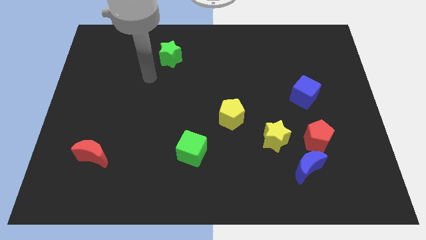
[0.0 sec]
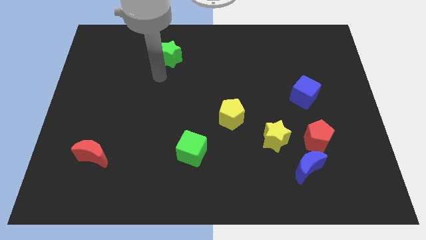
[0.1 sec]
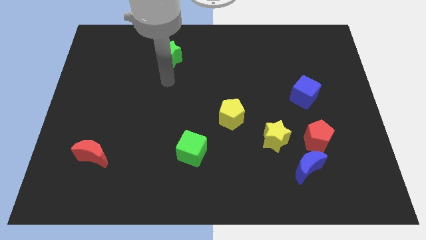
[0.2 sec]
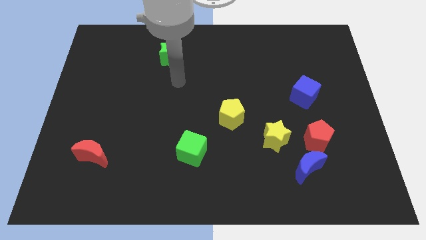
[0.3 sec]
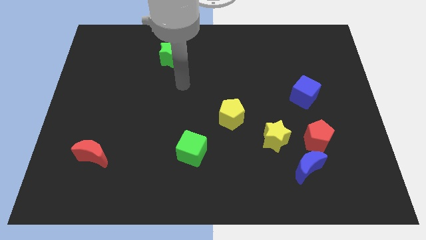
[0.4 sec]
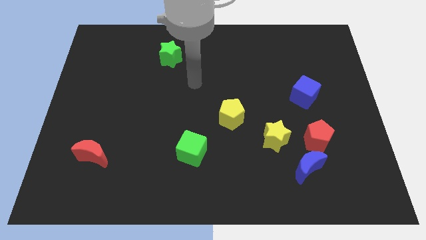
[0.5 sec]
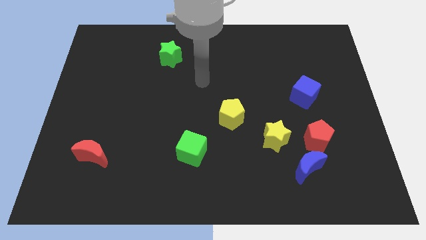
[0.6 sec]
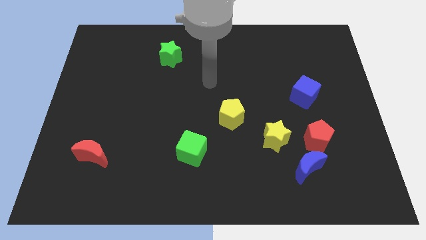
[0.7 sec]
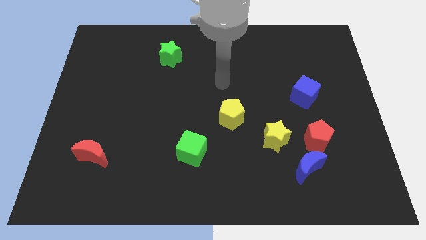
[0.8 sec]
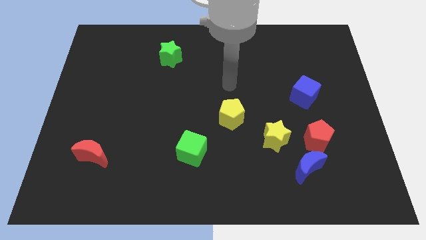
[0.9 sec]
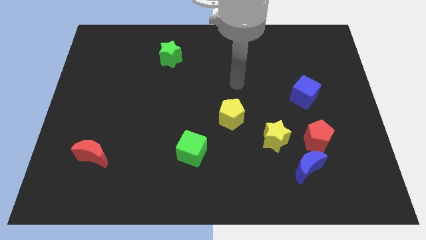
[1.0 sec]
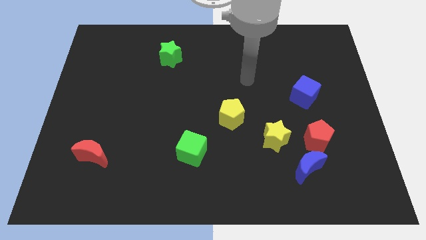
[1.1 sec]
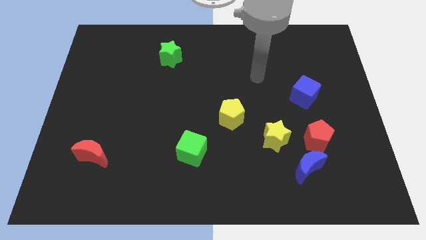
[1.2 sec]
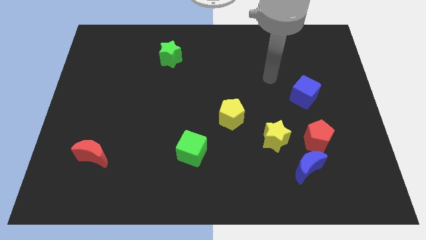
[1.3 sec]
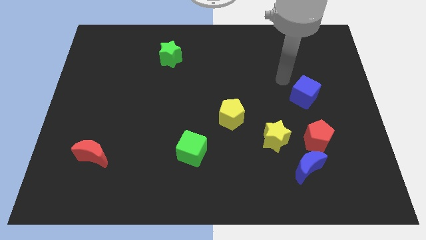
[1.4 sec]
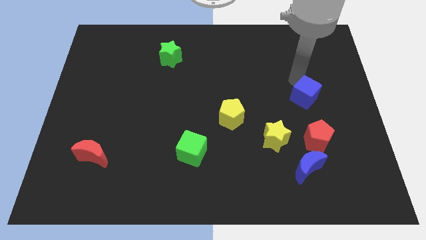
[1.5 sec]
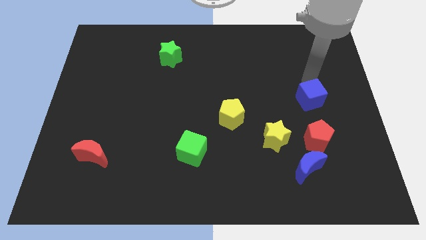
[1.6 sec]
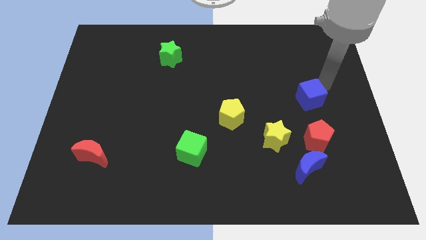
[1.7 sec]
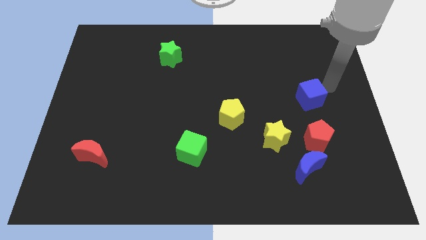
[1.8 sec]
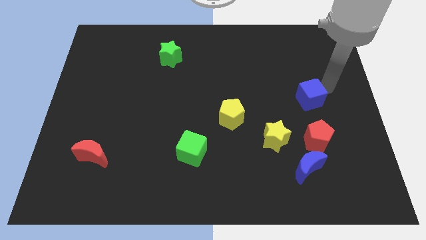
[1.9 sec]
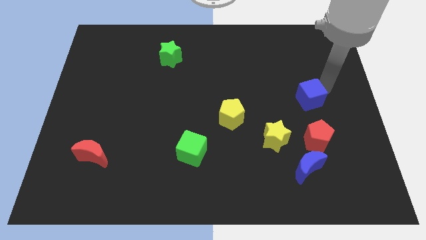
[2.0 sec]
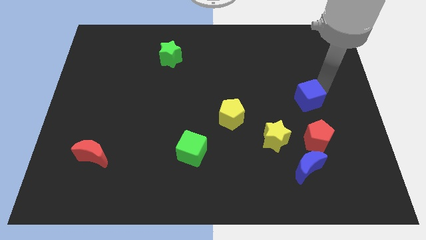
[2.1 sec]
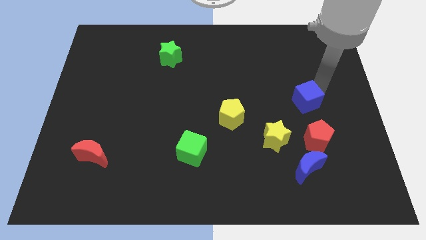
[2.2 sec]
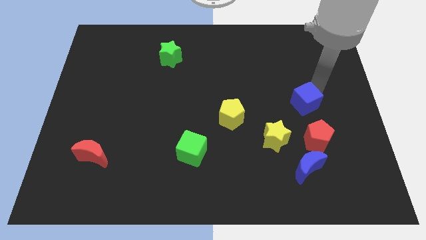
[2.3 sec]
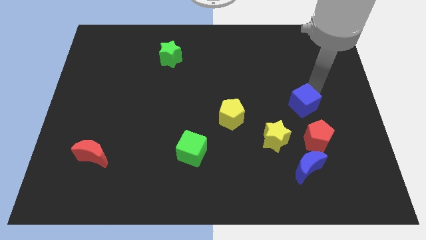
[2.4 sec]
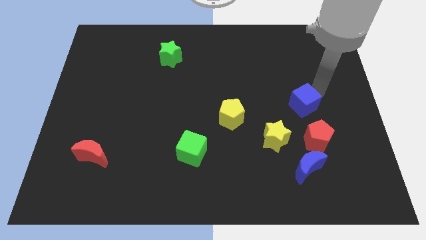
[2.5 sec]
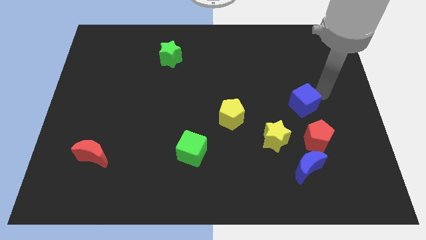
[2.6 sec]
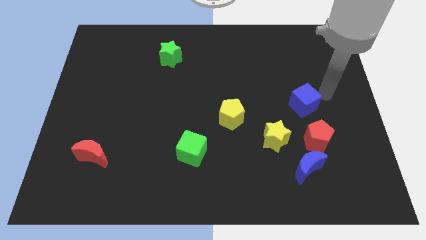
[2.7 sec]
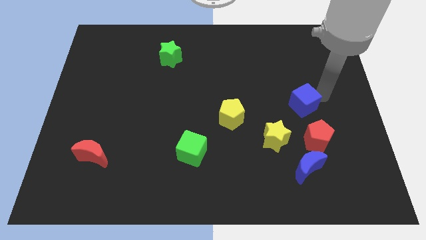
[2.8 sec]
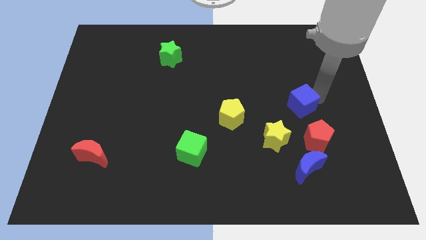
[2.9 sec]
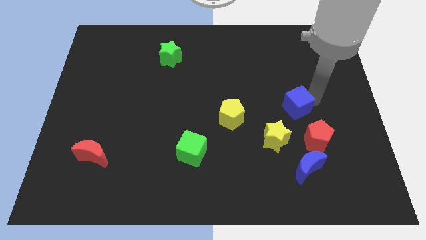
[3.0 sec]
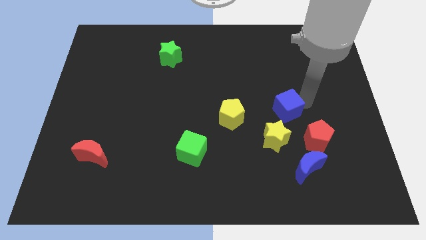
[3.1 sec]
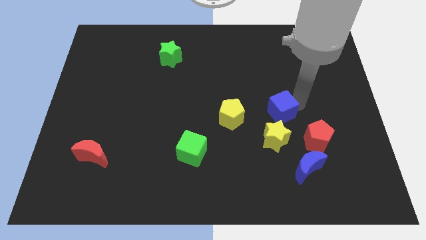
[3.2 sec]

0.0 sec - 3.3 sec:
move the blue cube a little downwards and to the left

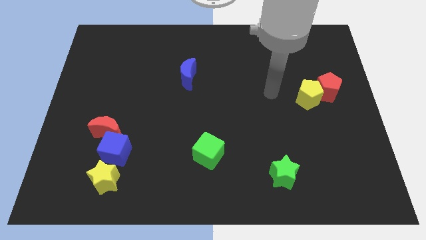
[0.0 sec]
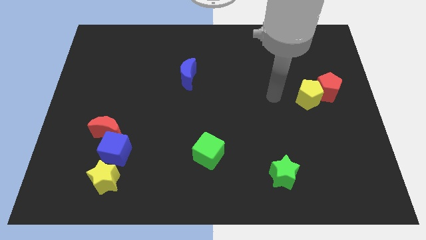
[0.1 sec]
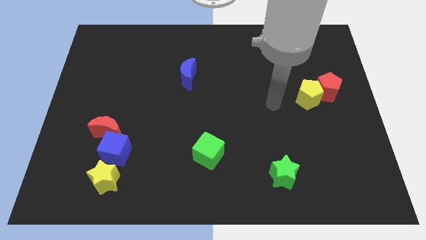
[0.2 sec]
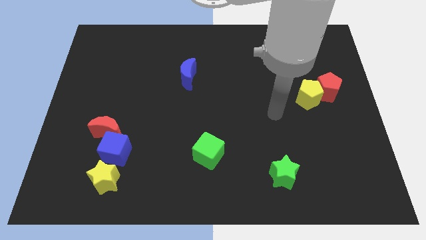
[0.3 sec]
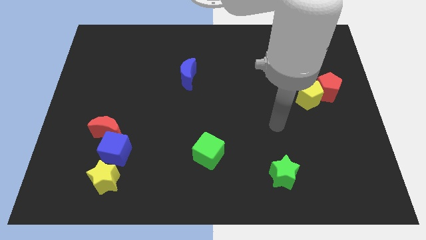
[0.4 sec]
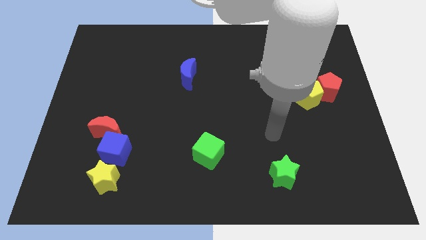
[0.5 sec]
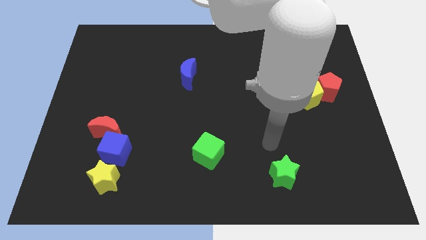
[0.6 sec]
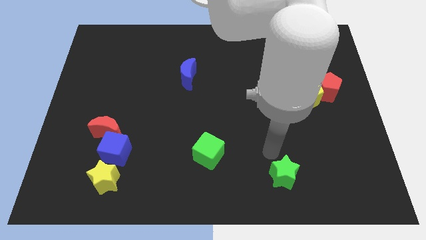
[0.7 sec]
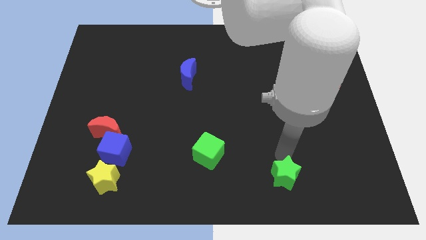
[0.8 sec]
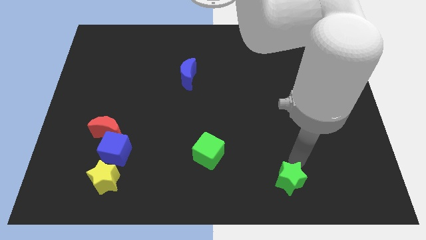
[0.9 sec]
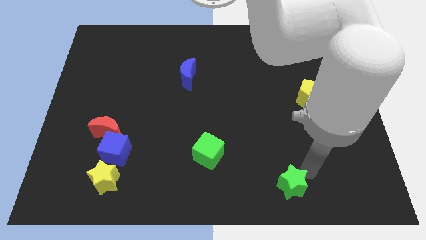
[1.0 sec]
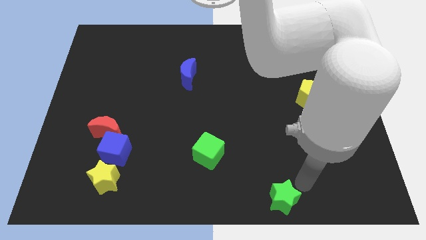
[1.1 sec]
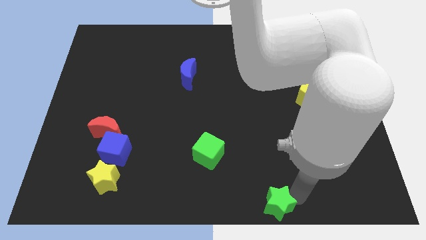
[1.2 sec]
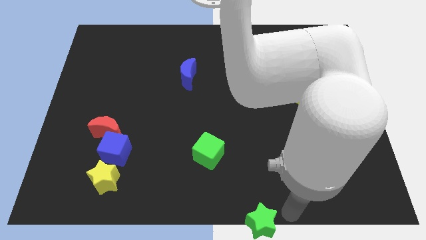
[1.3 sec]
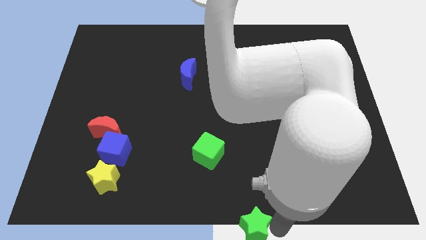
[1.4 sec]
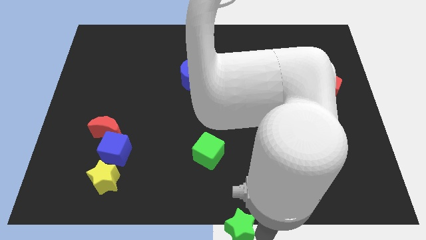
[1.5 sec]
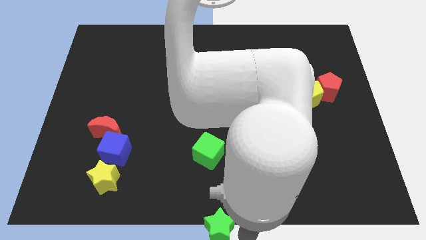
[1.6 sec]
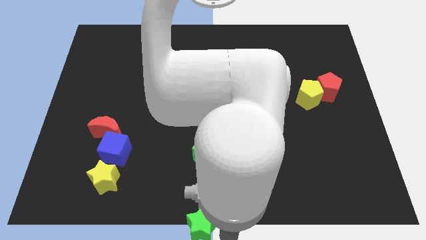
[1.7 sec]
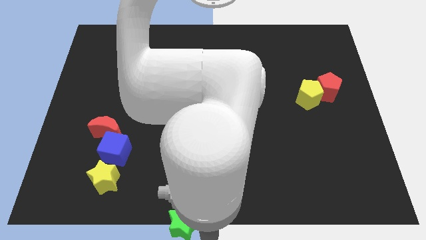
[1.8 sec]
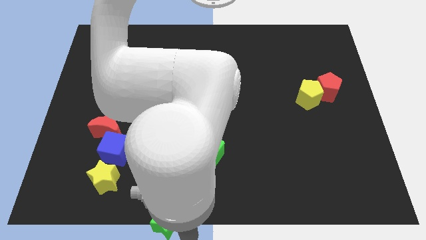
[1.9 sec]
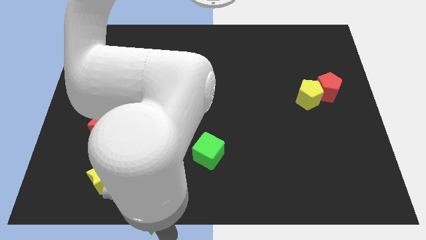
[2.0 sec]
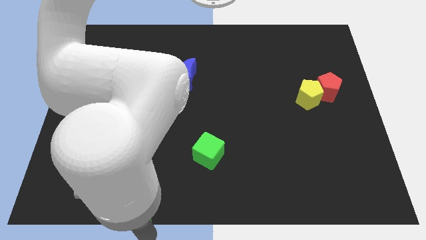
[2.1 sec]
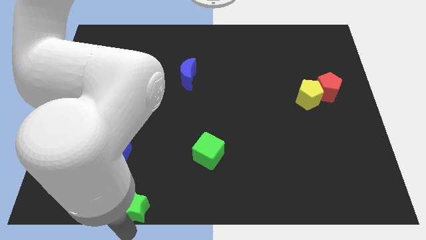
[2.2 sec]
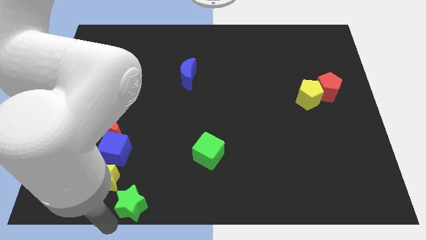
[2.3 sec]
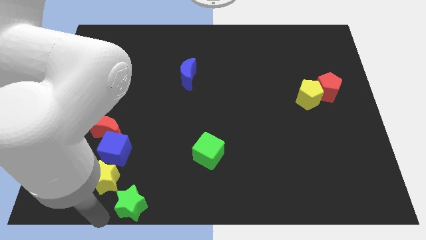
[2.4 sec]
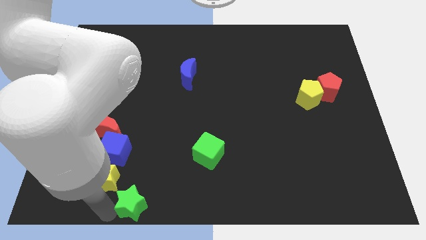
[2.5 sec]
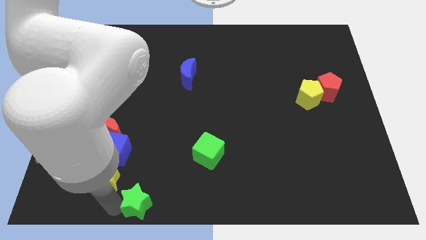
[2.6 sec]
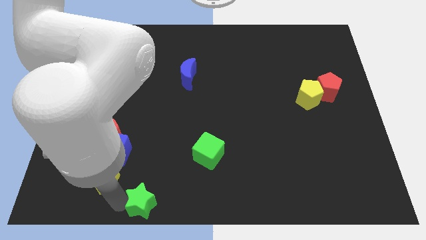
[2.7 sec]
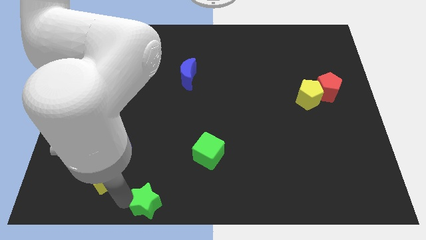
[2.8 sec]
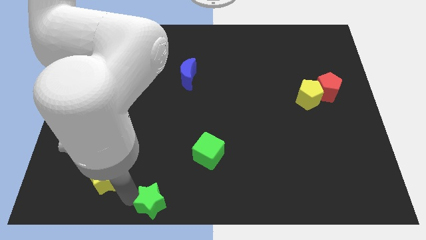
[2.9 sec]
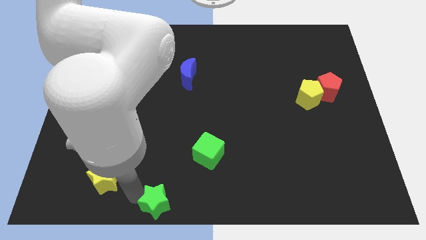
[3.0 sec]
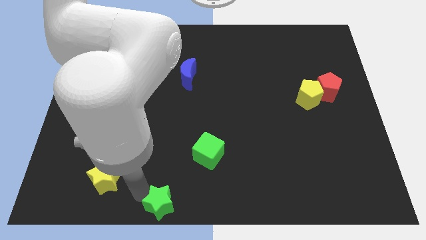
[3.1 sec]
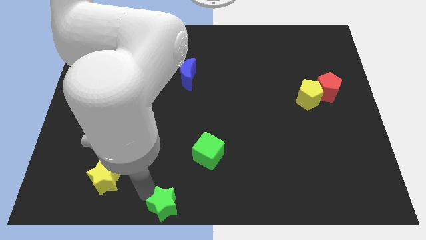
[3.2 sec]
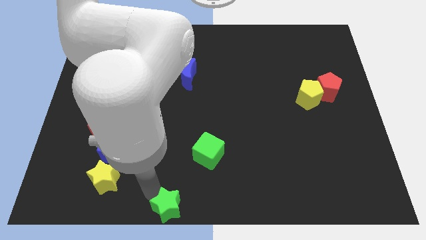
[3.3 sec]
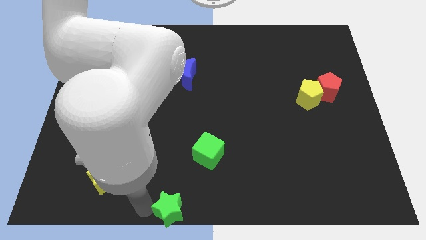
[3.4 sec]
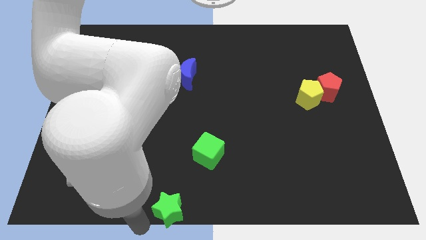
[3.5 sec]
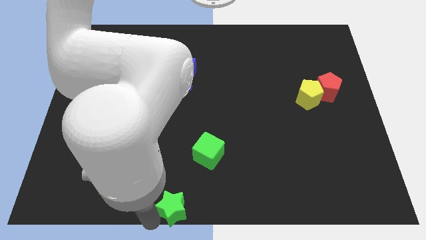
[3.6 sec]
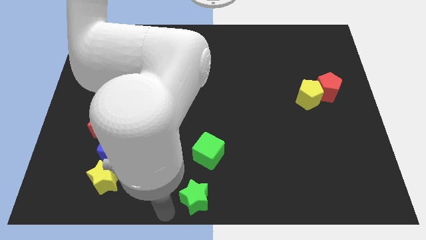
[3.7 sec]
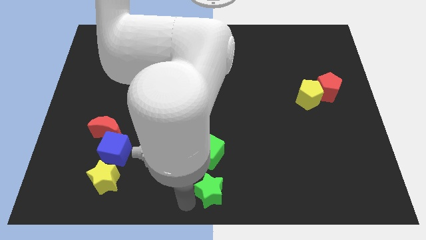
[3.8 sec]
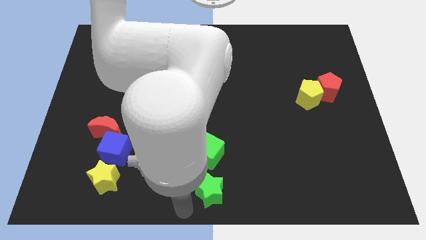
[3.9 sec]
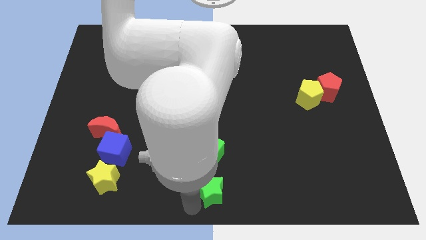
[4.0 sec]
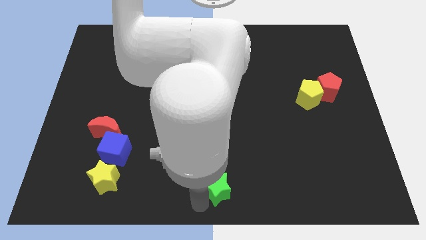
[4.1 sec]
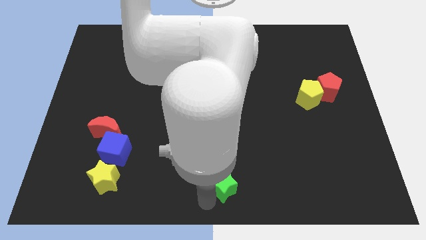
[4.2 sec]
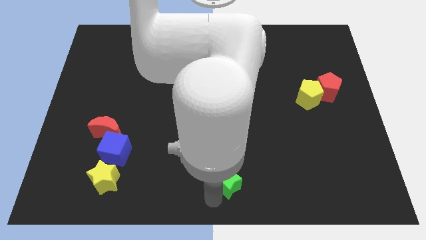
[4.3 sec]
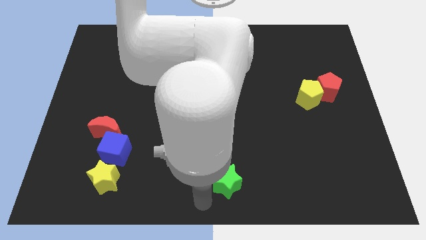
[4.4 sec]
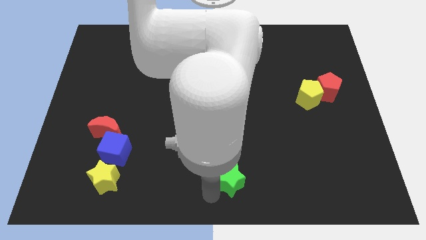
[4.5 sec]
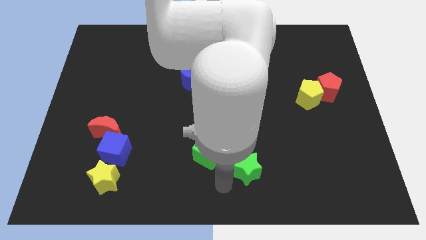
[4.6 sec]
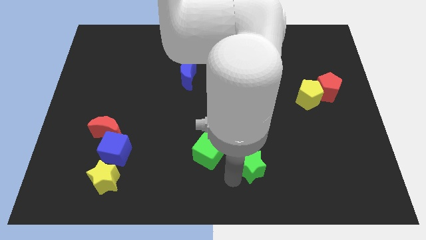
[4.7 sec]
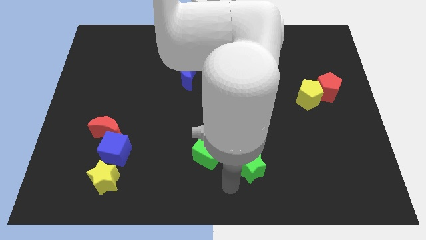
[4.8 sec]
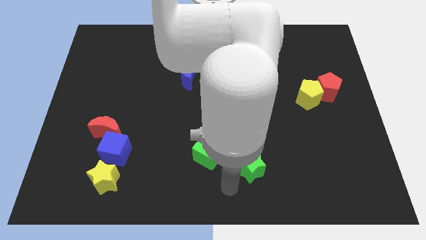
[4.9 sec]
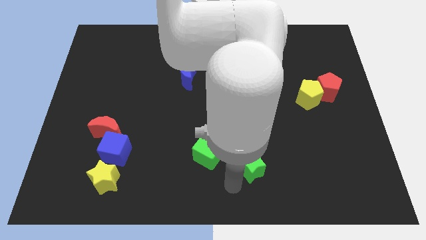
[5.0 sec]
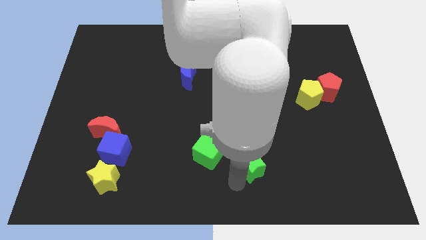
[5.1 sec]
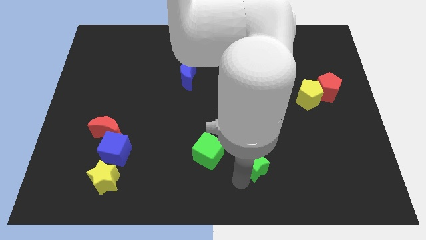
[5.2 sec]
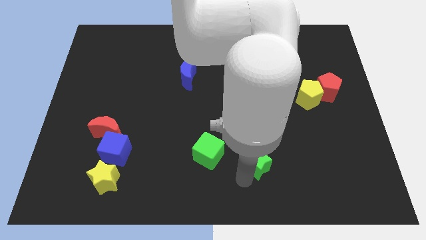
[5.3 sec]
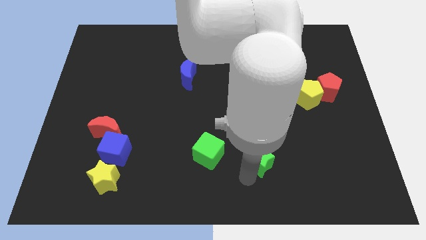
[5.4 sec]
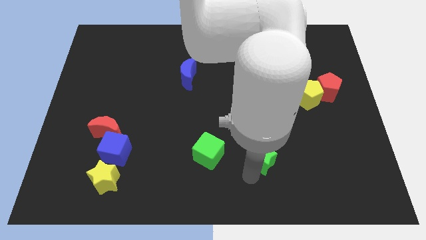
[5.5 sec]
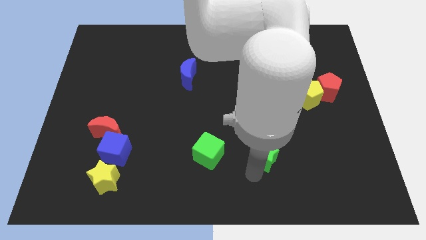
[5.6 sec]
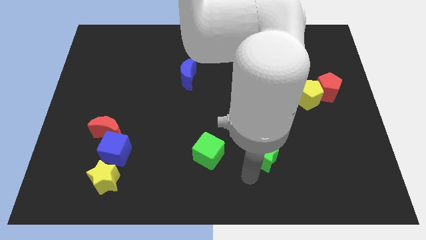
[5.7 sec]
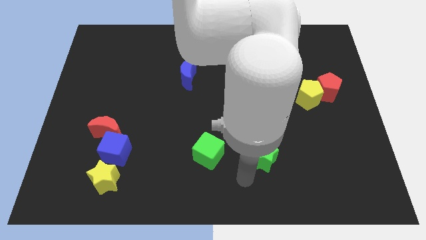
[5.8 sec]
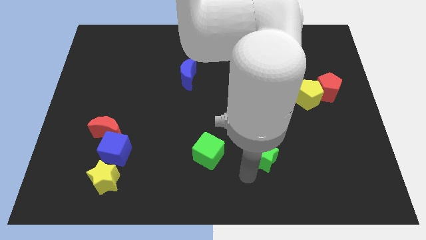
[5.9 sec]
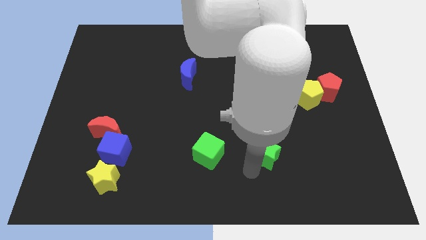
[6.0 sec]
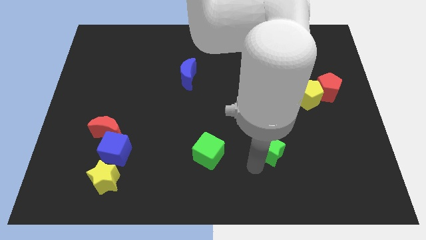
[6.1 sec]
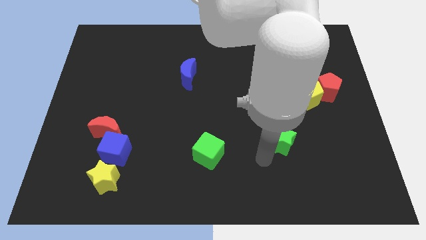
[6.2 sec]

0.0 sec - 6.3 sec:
move the green star a bit upwards
